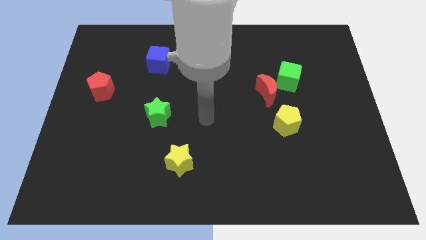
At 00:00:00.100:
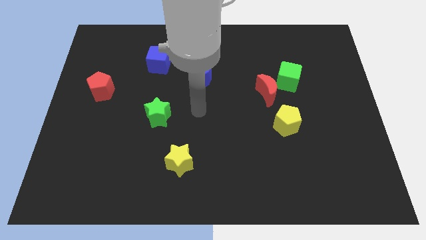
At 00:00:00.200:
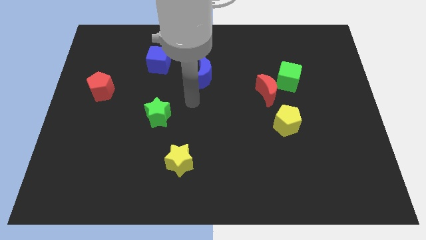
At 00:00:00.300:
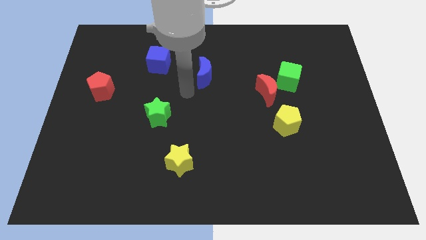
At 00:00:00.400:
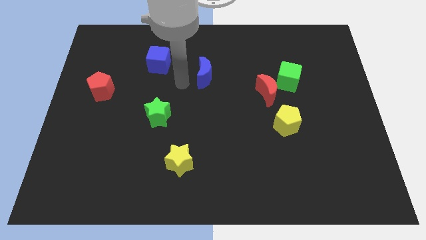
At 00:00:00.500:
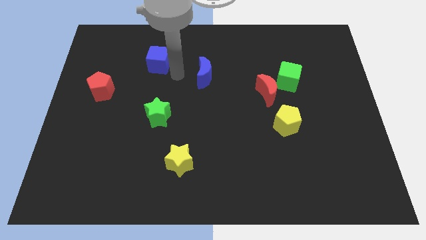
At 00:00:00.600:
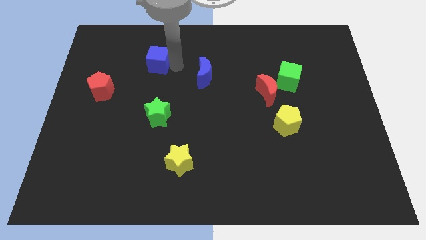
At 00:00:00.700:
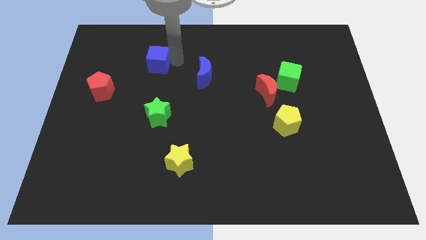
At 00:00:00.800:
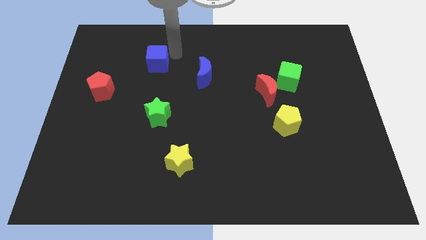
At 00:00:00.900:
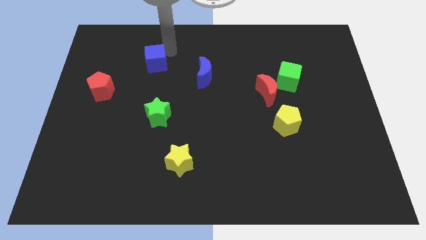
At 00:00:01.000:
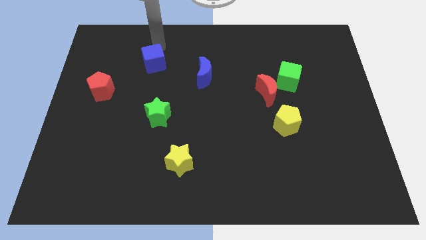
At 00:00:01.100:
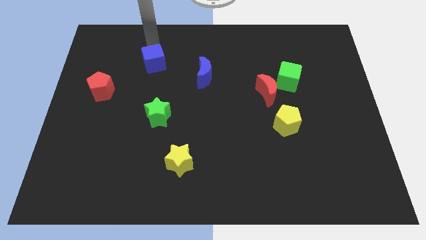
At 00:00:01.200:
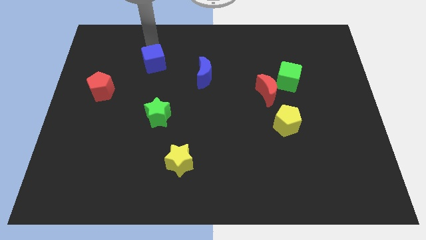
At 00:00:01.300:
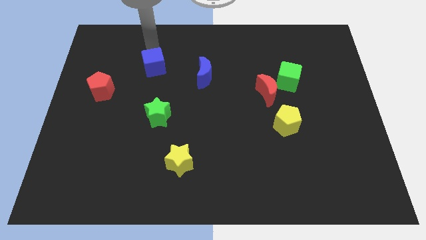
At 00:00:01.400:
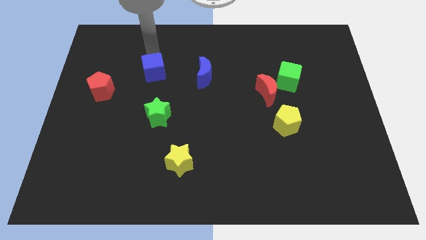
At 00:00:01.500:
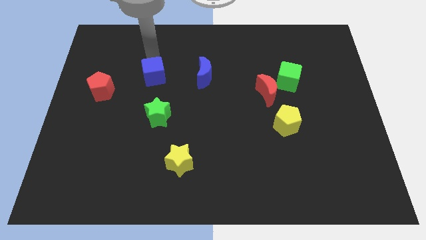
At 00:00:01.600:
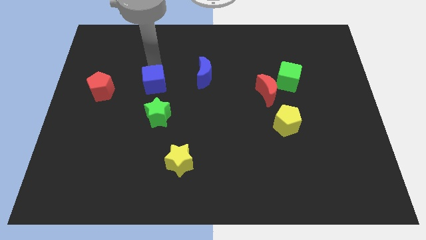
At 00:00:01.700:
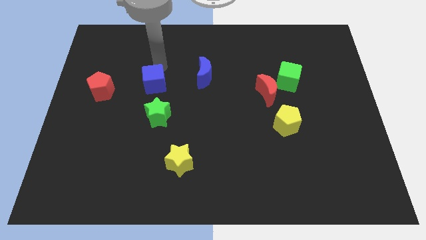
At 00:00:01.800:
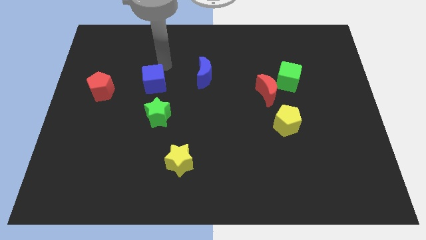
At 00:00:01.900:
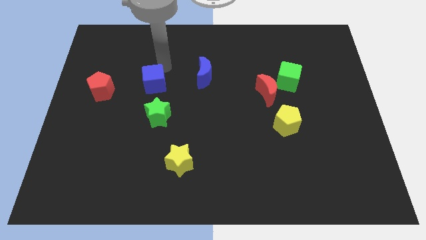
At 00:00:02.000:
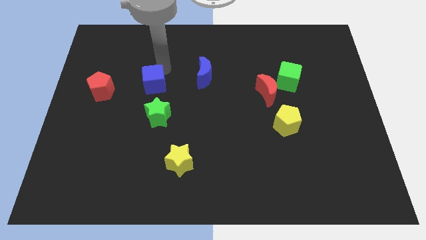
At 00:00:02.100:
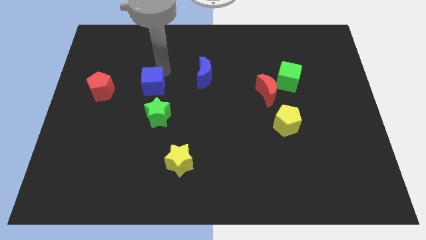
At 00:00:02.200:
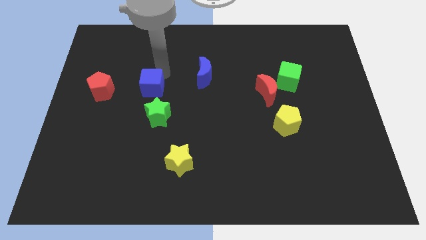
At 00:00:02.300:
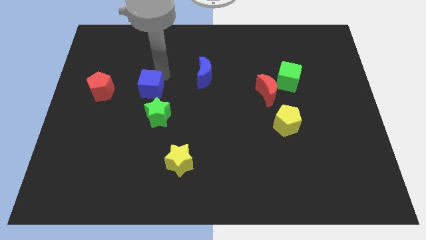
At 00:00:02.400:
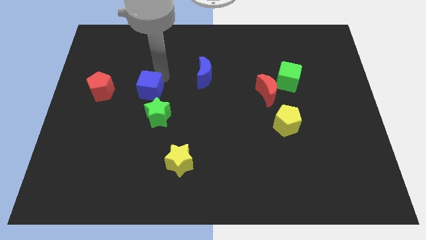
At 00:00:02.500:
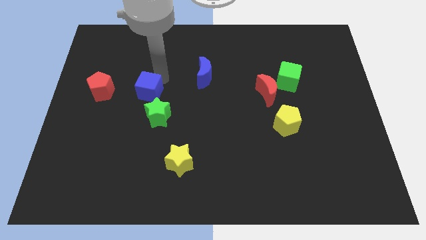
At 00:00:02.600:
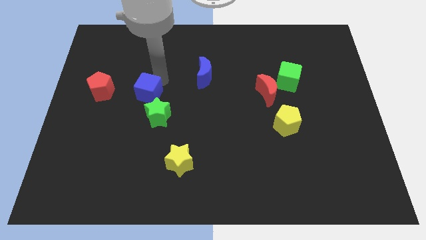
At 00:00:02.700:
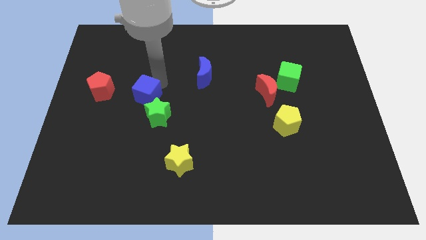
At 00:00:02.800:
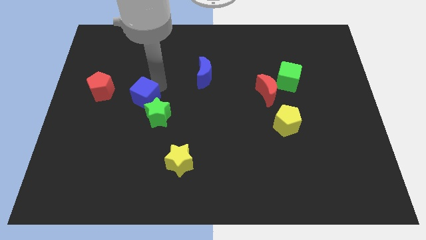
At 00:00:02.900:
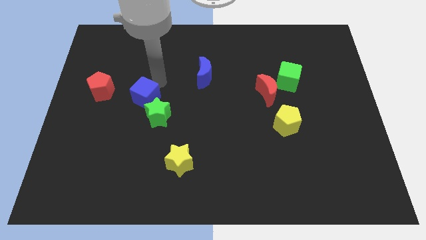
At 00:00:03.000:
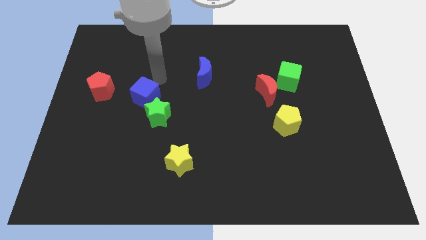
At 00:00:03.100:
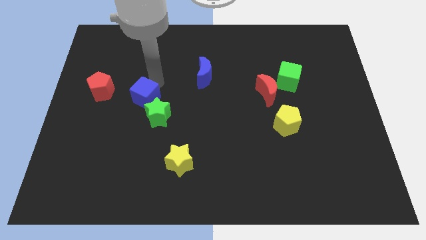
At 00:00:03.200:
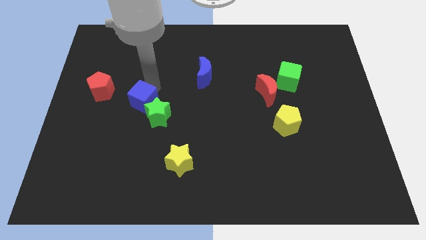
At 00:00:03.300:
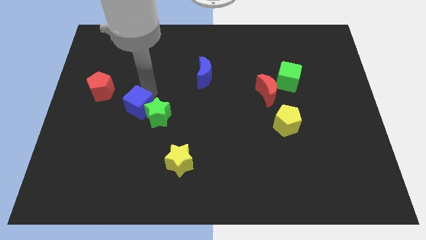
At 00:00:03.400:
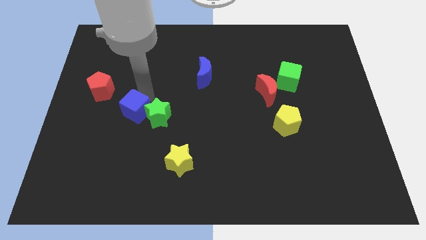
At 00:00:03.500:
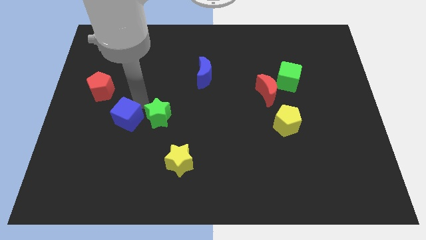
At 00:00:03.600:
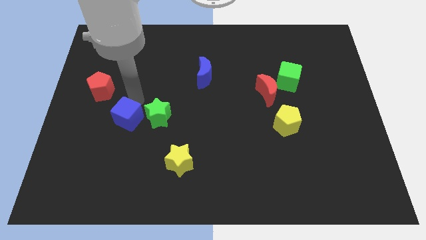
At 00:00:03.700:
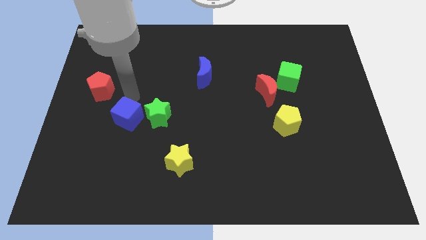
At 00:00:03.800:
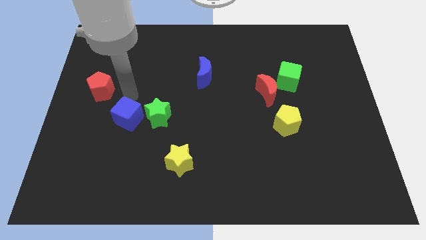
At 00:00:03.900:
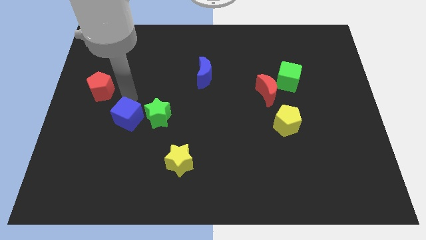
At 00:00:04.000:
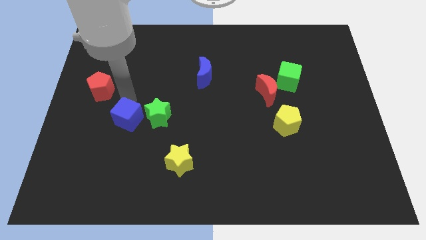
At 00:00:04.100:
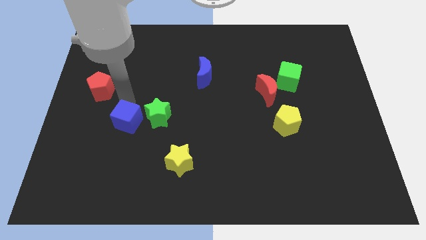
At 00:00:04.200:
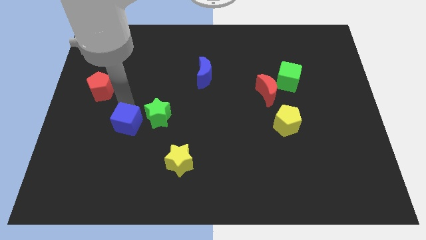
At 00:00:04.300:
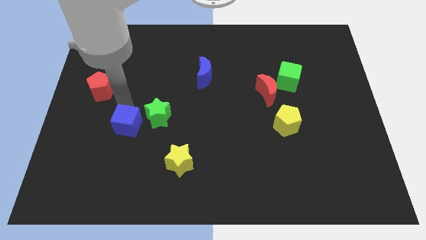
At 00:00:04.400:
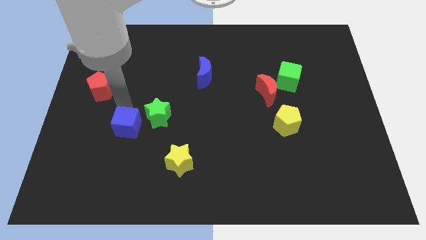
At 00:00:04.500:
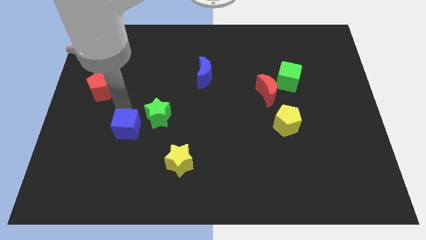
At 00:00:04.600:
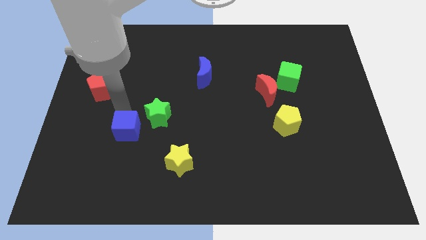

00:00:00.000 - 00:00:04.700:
move the blue cube downwards

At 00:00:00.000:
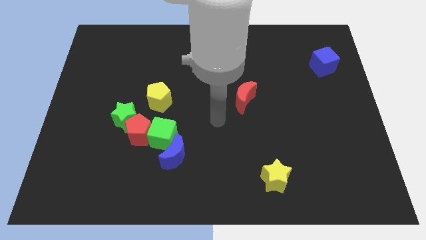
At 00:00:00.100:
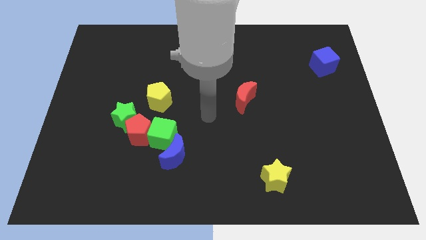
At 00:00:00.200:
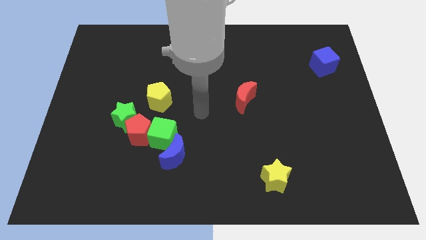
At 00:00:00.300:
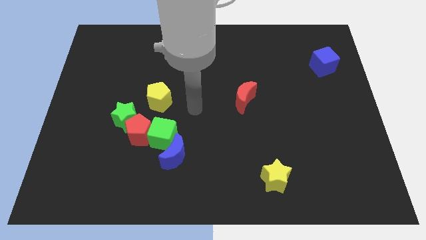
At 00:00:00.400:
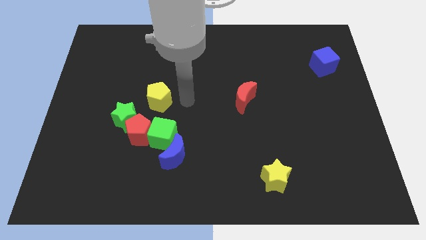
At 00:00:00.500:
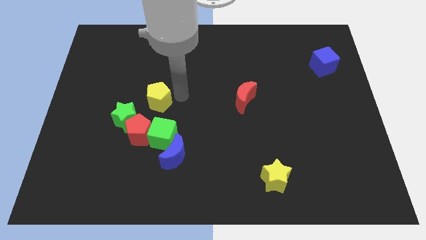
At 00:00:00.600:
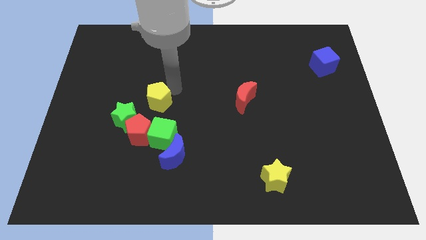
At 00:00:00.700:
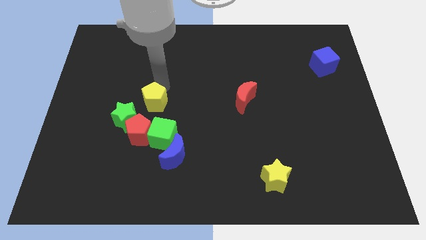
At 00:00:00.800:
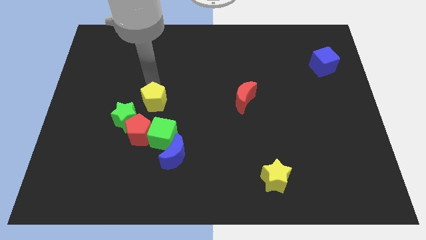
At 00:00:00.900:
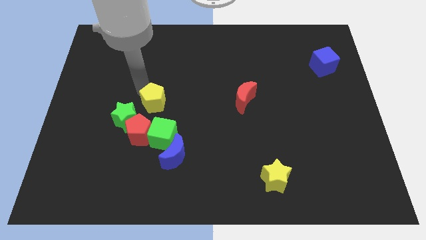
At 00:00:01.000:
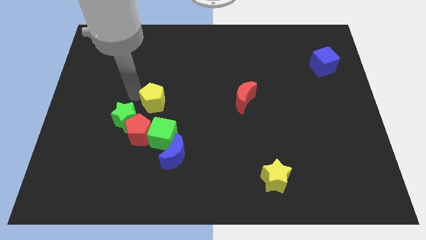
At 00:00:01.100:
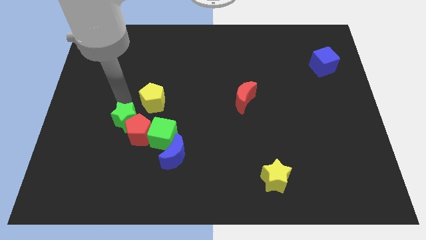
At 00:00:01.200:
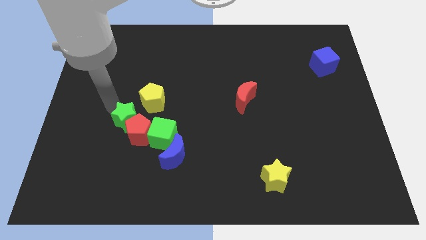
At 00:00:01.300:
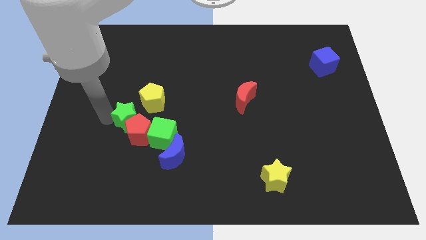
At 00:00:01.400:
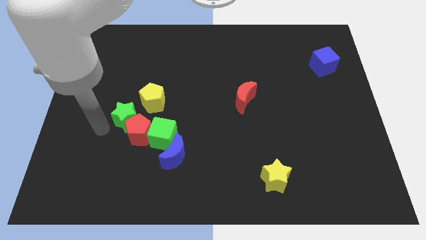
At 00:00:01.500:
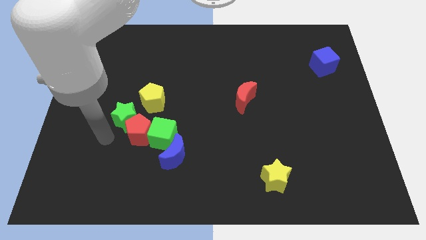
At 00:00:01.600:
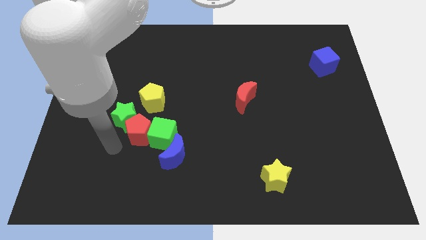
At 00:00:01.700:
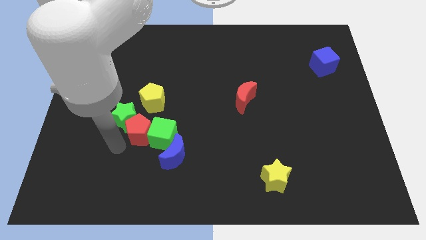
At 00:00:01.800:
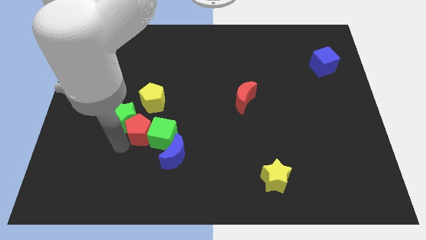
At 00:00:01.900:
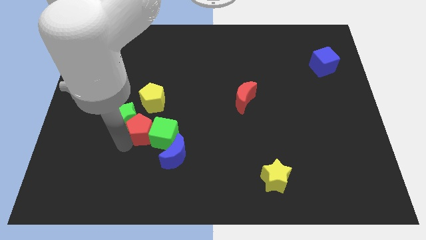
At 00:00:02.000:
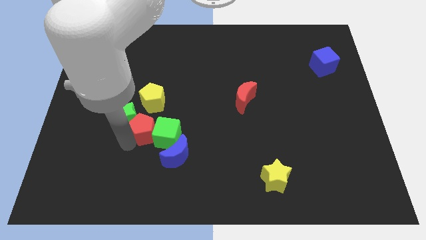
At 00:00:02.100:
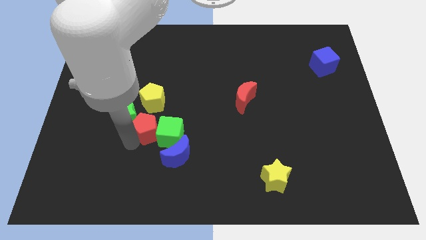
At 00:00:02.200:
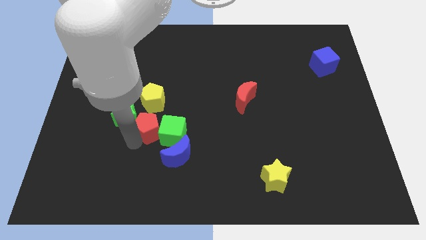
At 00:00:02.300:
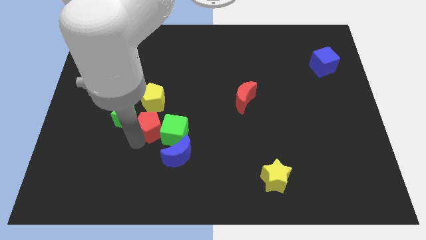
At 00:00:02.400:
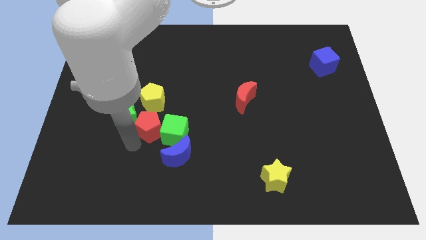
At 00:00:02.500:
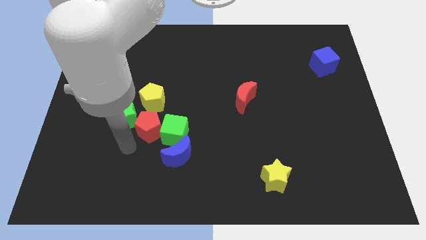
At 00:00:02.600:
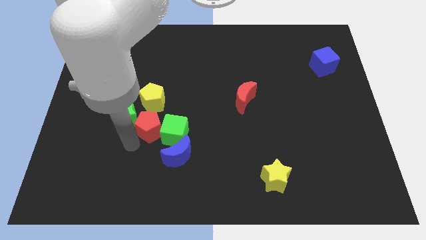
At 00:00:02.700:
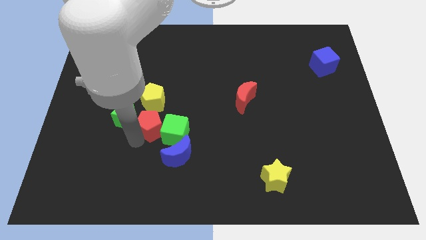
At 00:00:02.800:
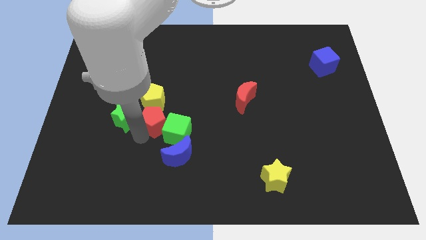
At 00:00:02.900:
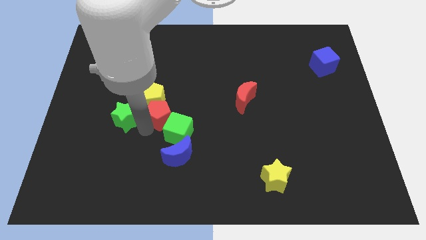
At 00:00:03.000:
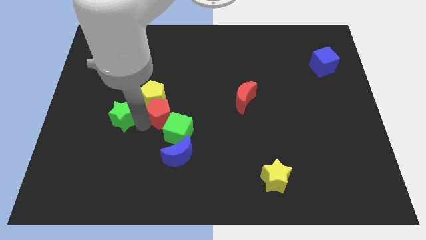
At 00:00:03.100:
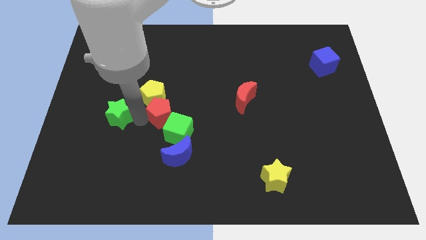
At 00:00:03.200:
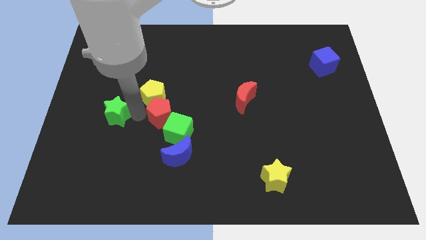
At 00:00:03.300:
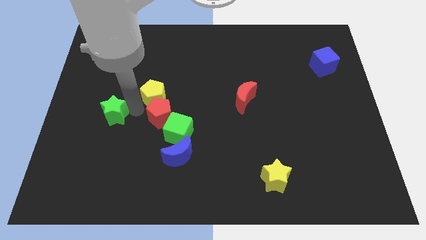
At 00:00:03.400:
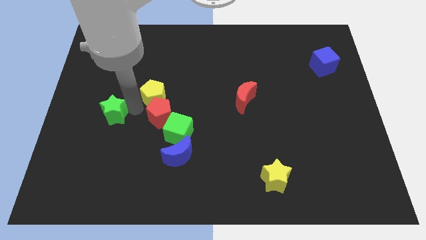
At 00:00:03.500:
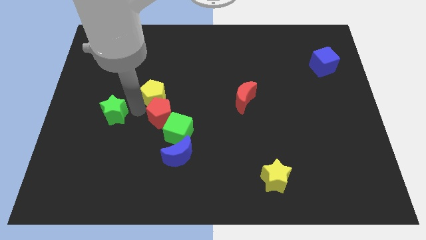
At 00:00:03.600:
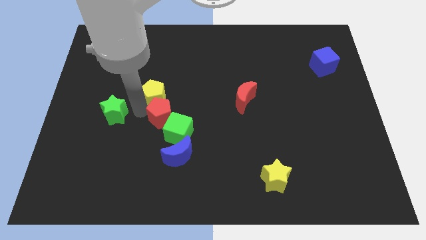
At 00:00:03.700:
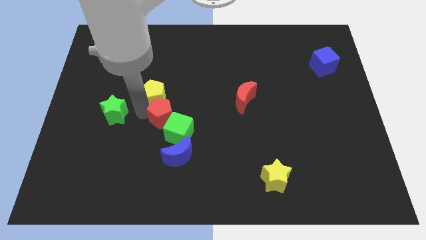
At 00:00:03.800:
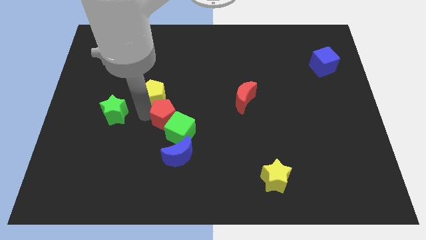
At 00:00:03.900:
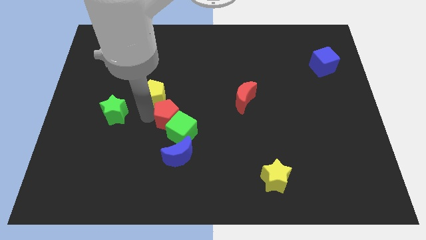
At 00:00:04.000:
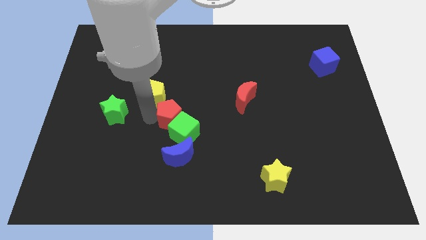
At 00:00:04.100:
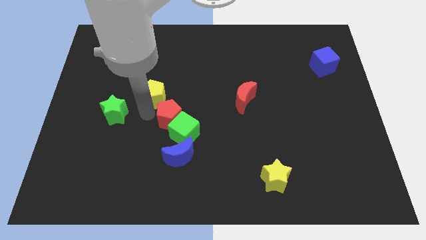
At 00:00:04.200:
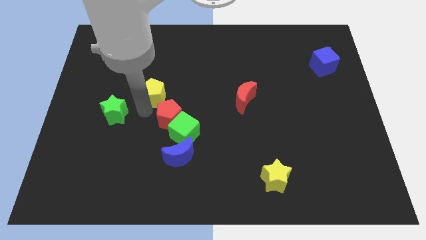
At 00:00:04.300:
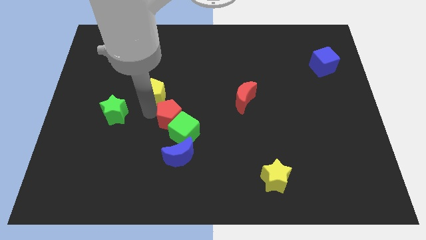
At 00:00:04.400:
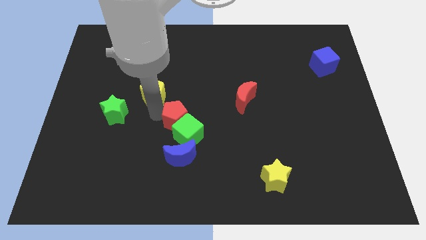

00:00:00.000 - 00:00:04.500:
slightly slide the red pentagon right
